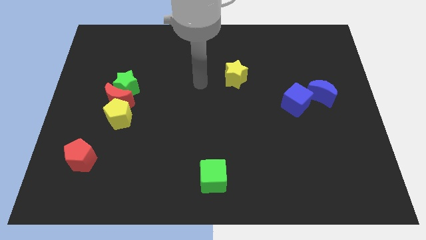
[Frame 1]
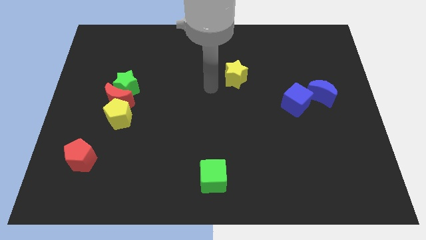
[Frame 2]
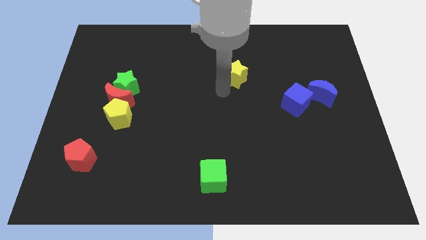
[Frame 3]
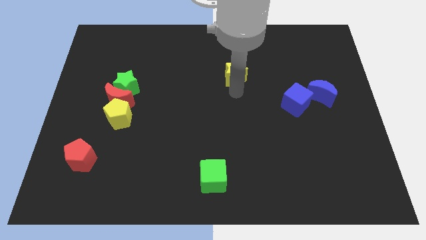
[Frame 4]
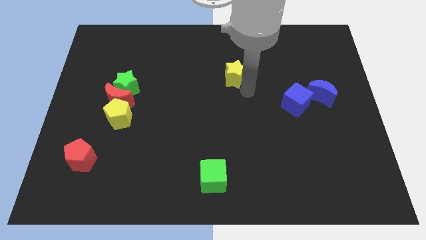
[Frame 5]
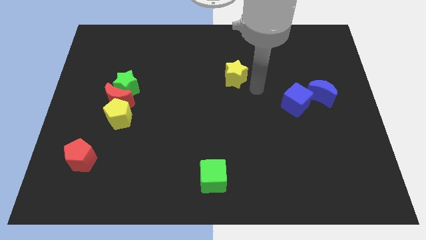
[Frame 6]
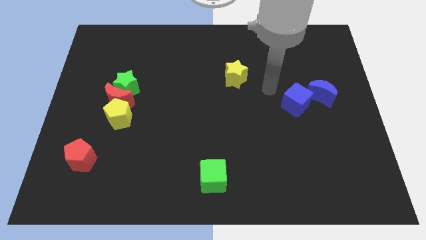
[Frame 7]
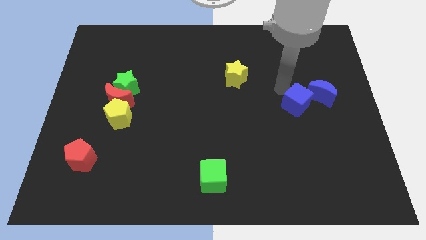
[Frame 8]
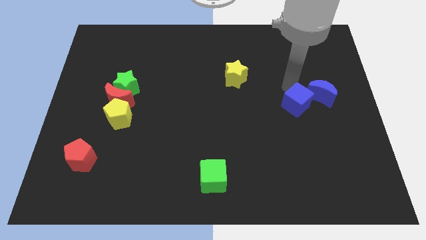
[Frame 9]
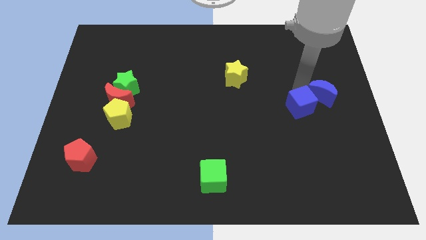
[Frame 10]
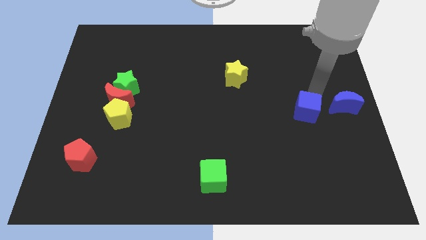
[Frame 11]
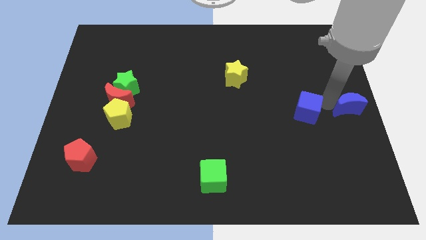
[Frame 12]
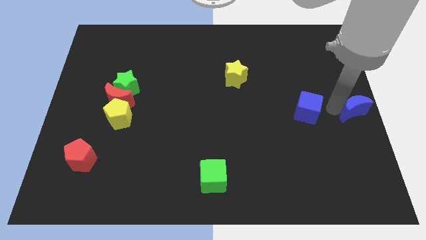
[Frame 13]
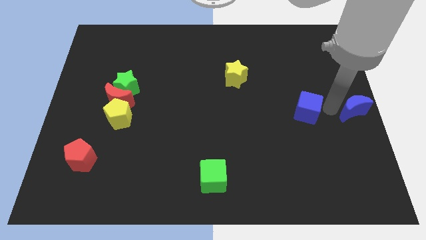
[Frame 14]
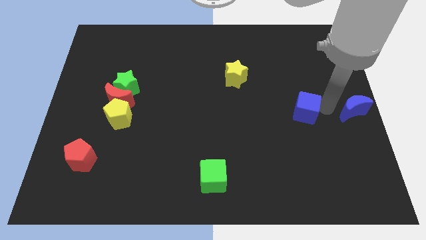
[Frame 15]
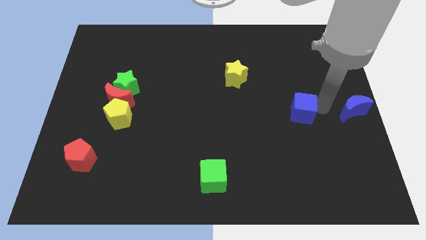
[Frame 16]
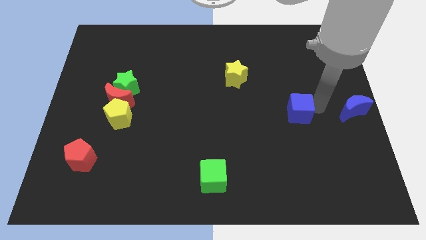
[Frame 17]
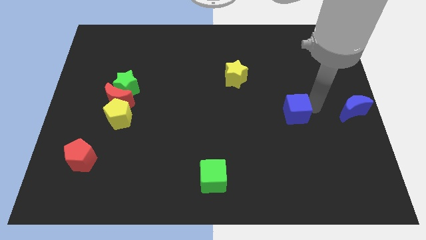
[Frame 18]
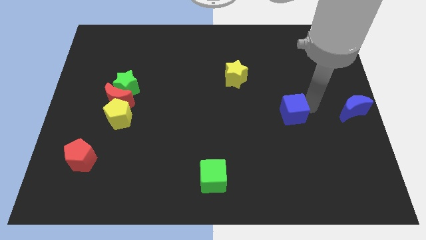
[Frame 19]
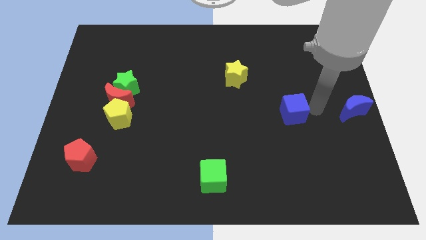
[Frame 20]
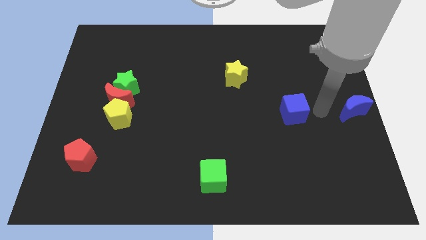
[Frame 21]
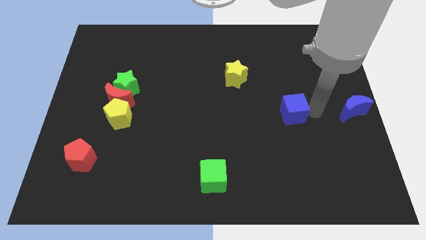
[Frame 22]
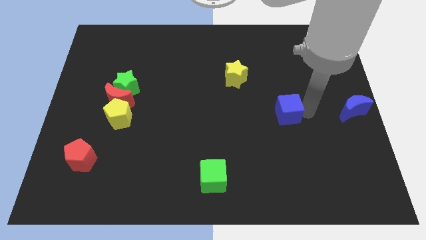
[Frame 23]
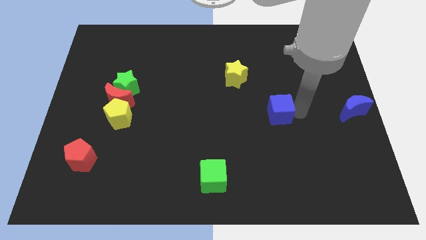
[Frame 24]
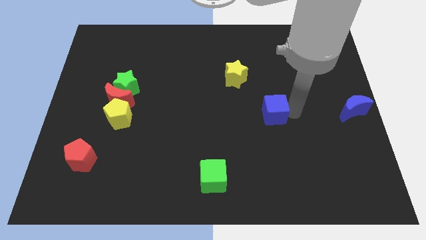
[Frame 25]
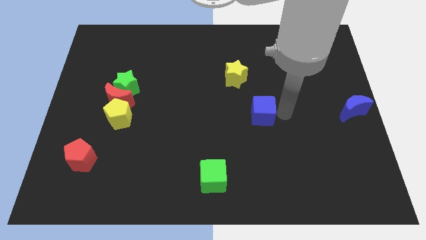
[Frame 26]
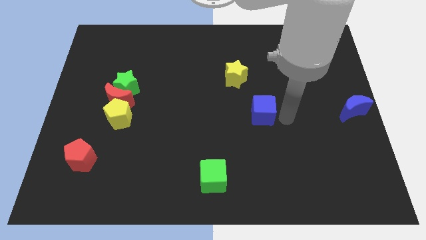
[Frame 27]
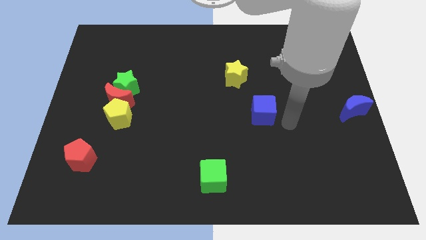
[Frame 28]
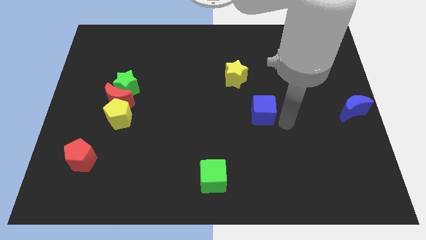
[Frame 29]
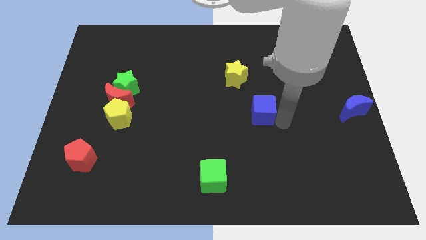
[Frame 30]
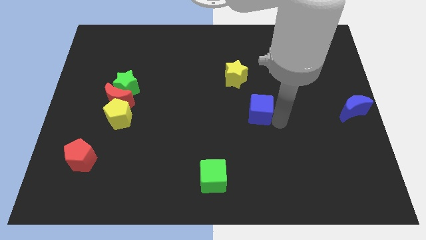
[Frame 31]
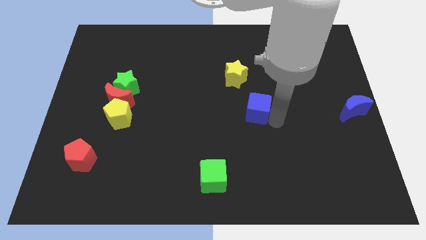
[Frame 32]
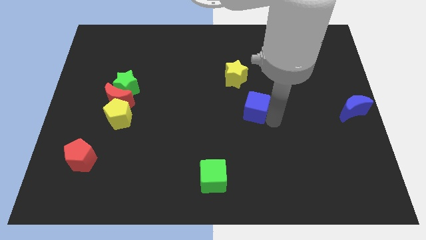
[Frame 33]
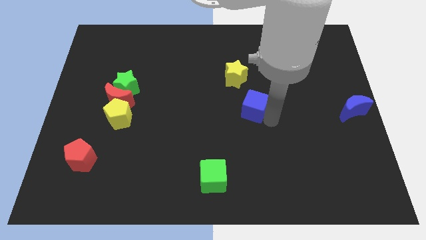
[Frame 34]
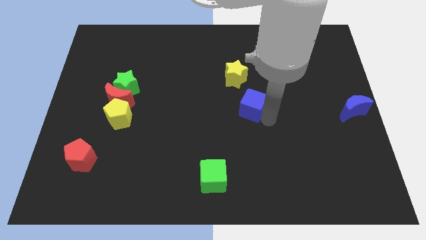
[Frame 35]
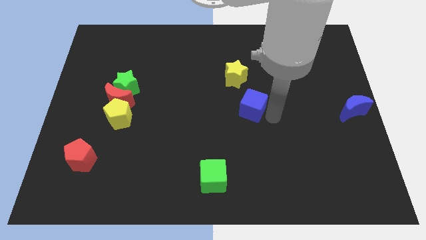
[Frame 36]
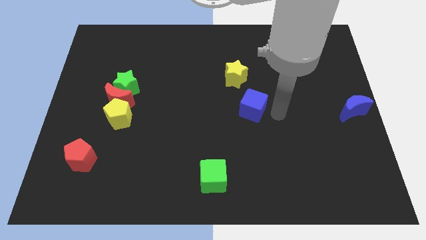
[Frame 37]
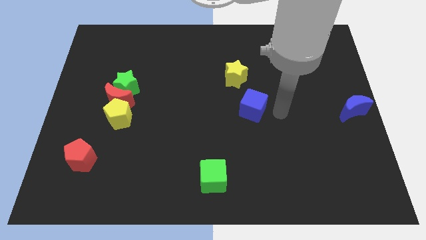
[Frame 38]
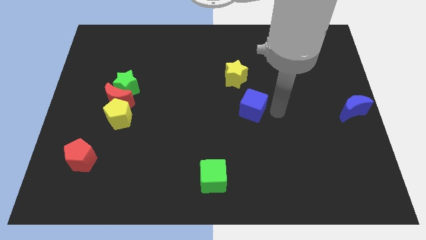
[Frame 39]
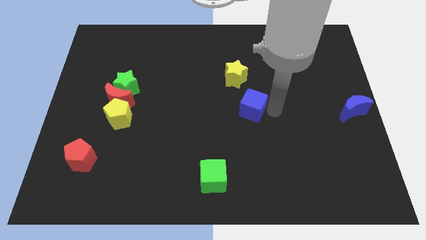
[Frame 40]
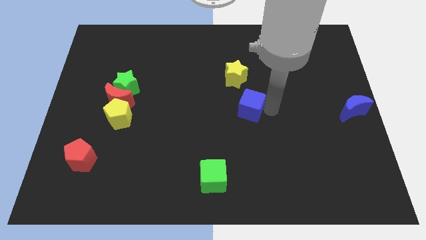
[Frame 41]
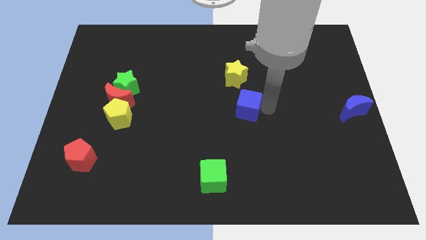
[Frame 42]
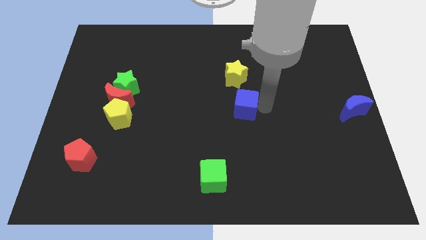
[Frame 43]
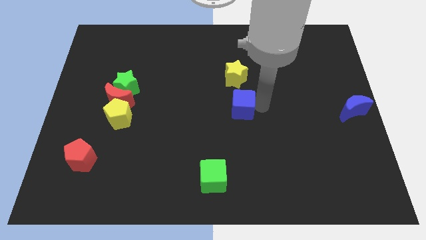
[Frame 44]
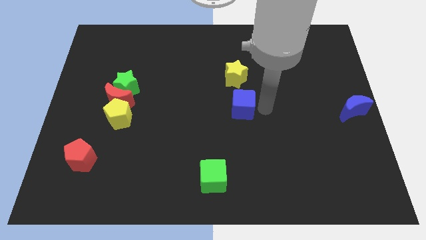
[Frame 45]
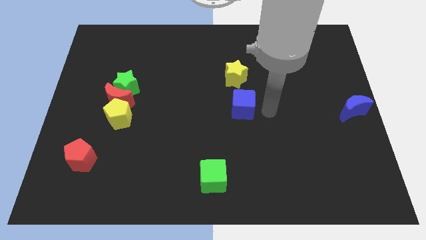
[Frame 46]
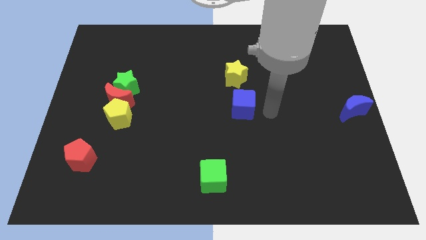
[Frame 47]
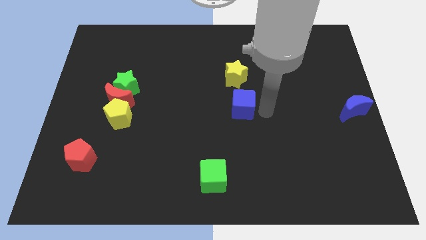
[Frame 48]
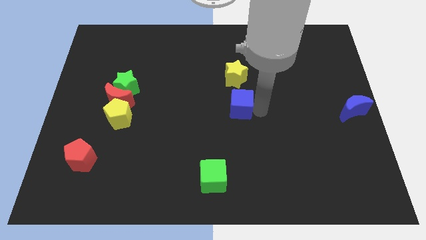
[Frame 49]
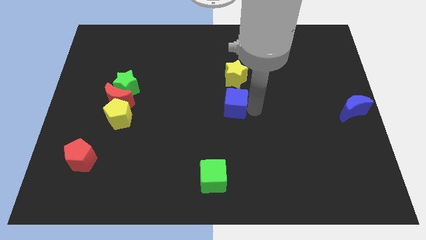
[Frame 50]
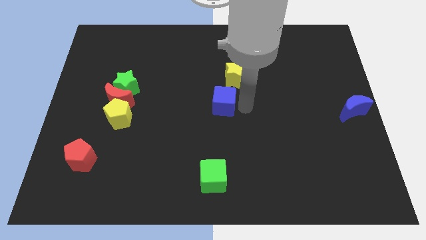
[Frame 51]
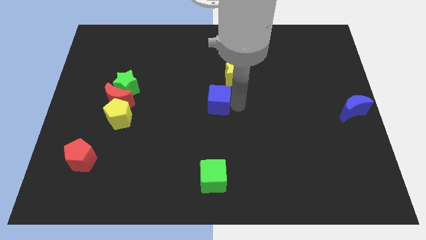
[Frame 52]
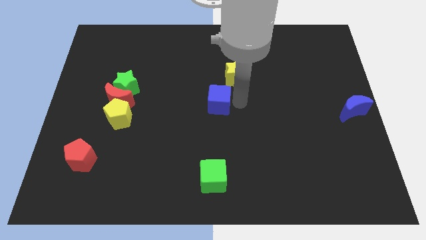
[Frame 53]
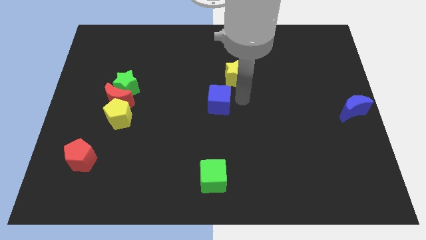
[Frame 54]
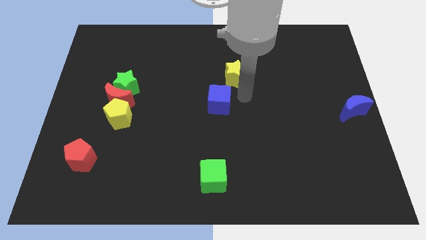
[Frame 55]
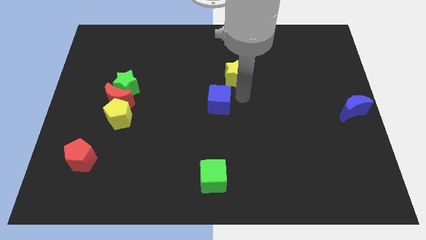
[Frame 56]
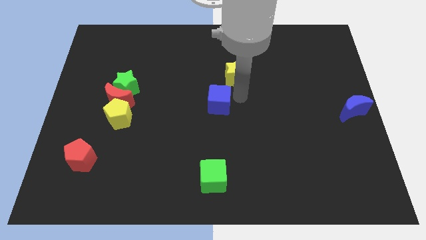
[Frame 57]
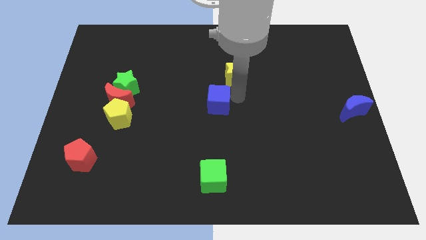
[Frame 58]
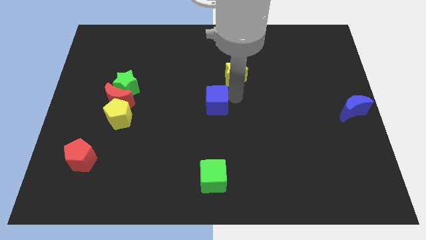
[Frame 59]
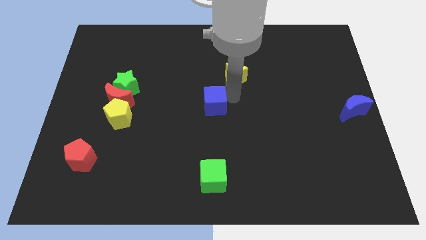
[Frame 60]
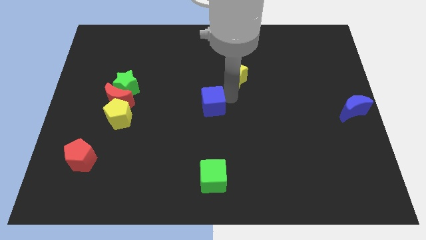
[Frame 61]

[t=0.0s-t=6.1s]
slide the blue cube left

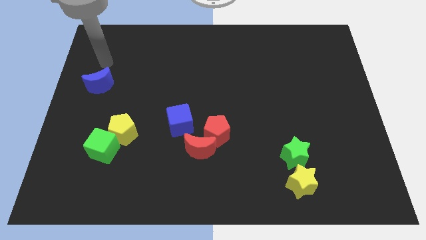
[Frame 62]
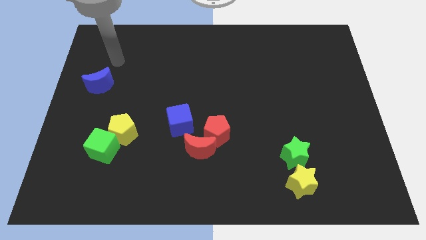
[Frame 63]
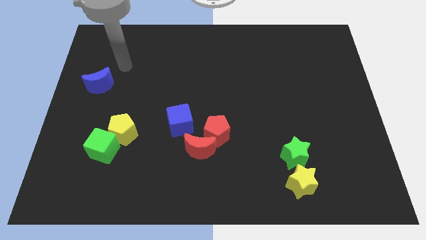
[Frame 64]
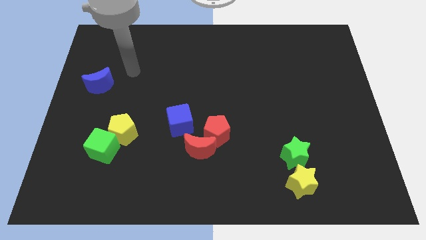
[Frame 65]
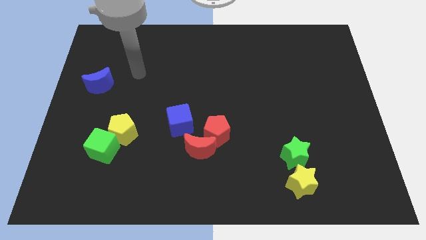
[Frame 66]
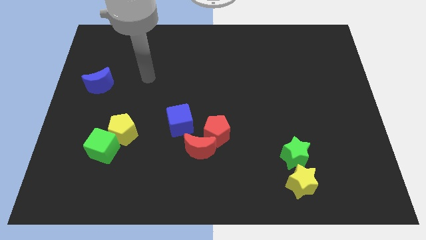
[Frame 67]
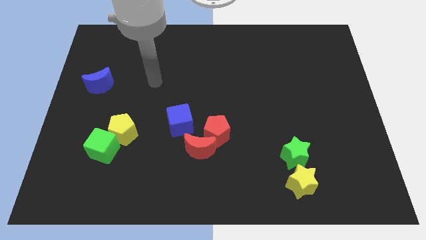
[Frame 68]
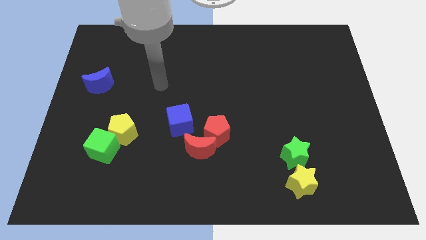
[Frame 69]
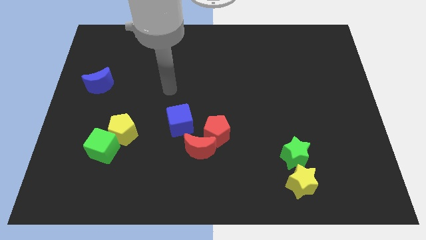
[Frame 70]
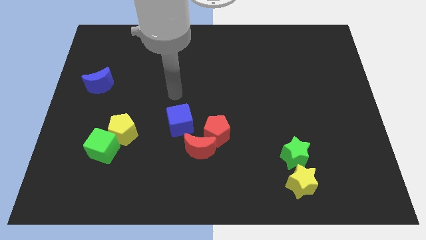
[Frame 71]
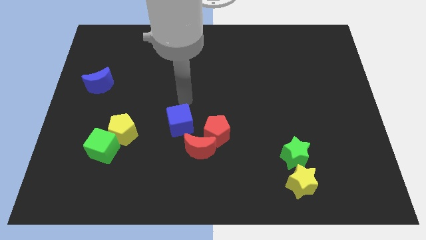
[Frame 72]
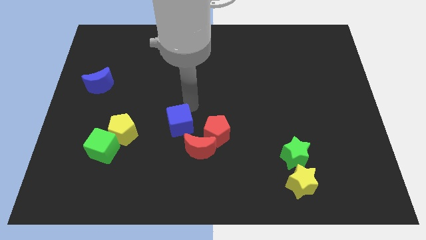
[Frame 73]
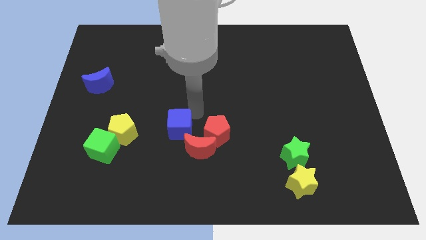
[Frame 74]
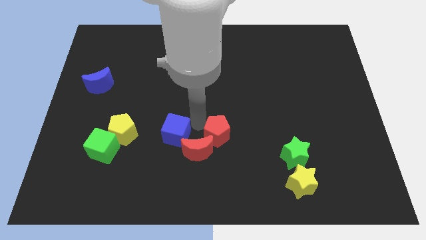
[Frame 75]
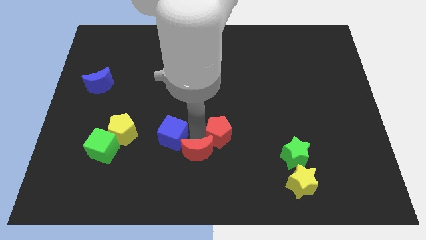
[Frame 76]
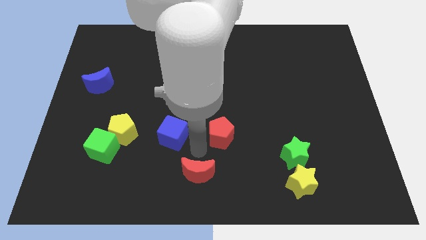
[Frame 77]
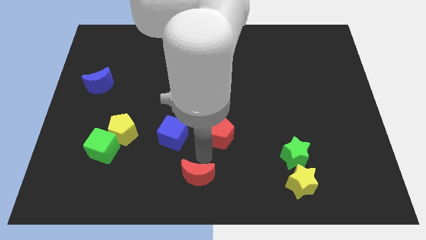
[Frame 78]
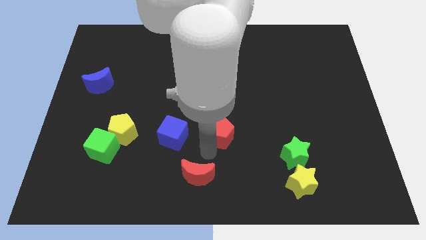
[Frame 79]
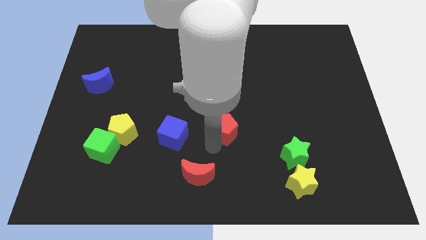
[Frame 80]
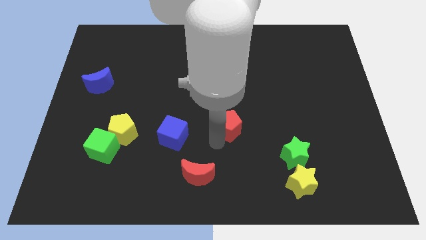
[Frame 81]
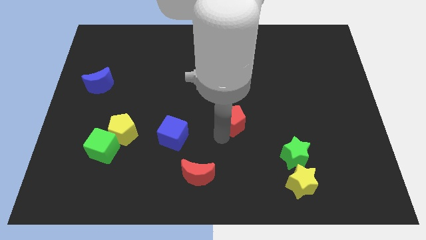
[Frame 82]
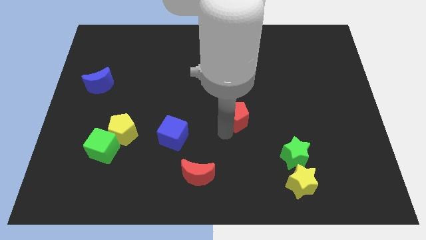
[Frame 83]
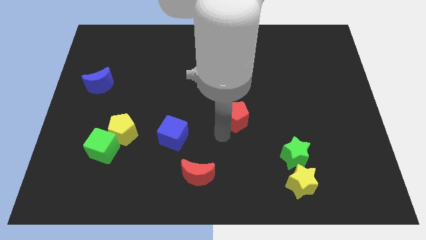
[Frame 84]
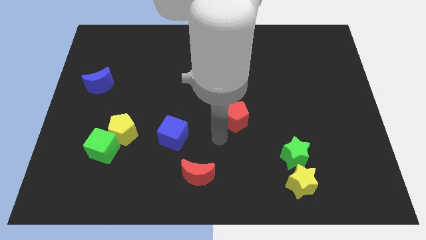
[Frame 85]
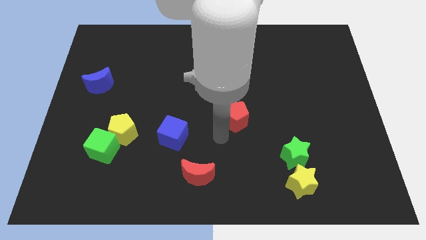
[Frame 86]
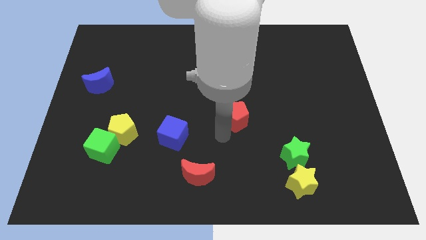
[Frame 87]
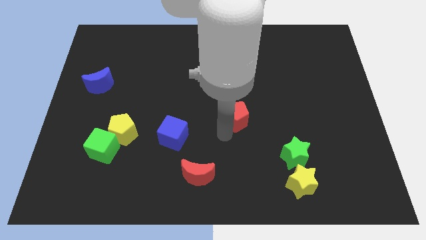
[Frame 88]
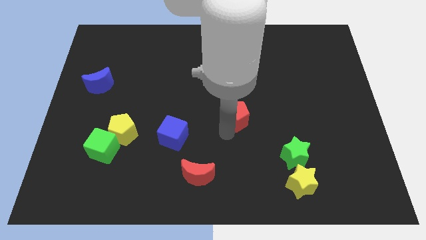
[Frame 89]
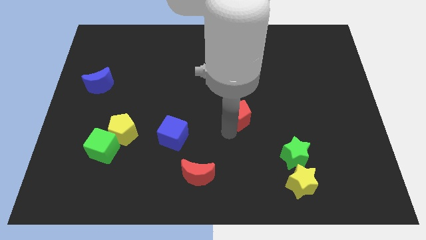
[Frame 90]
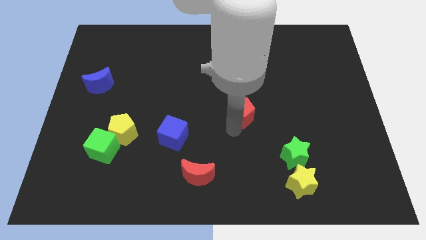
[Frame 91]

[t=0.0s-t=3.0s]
slightly slide the red pentagon upwards and right diagonally
